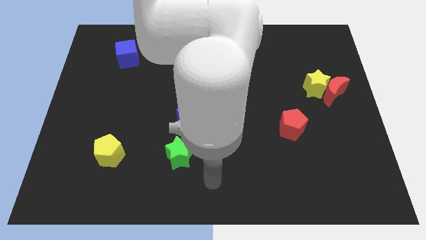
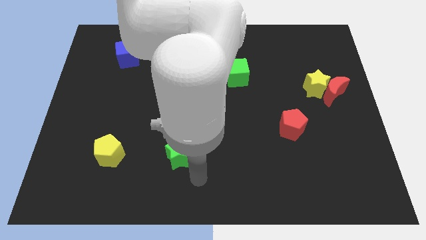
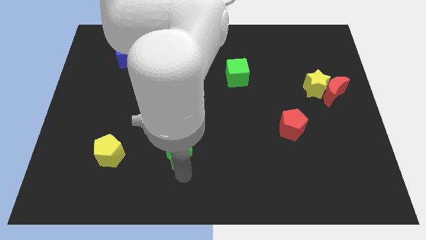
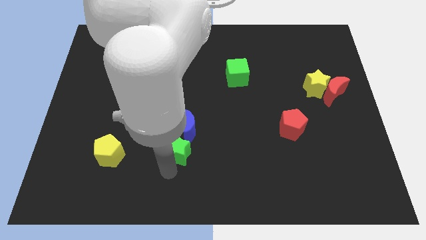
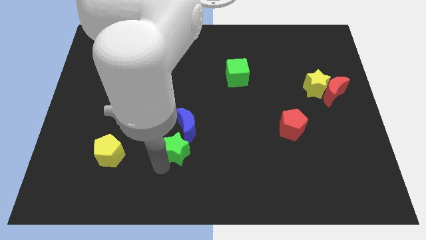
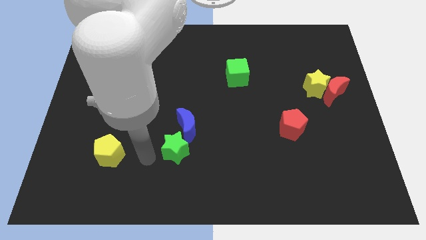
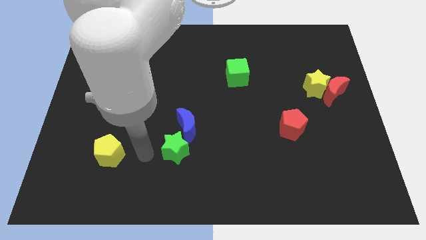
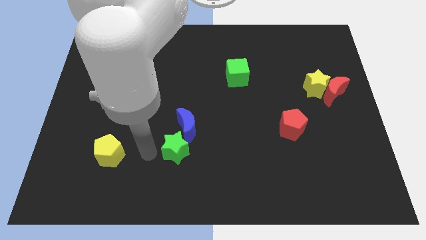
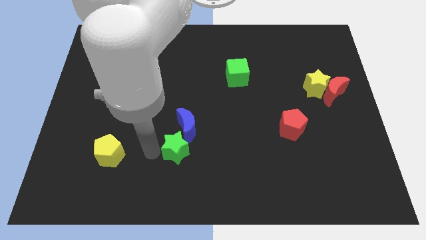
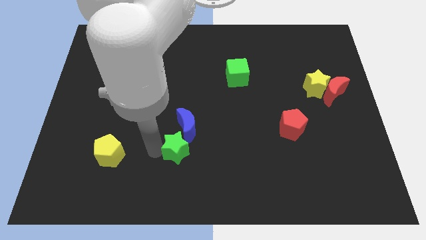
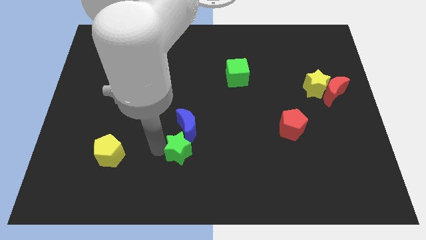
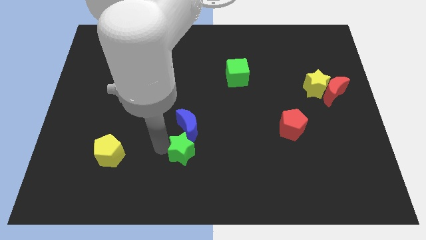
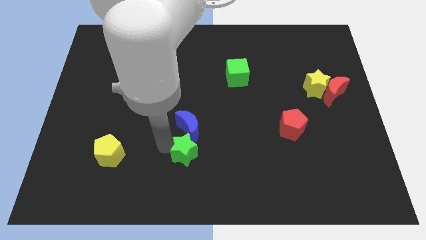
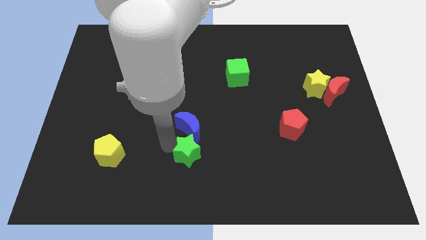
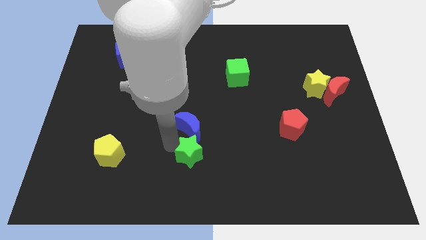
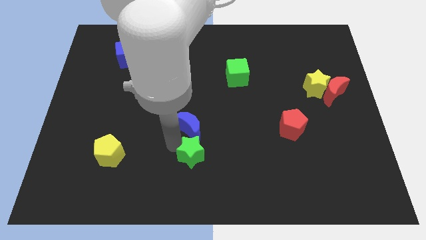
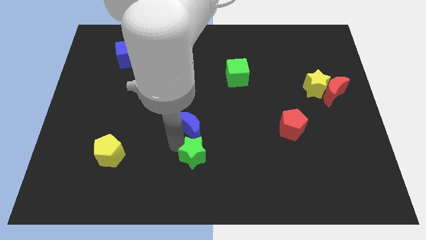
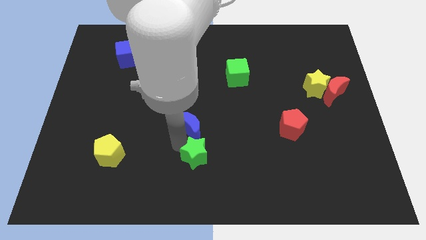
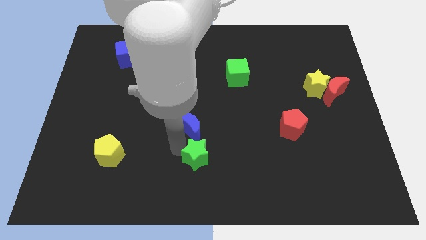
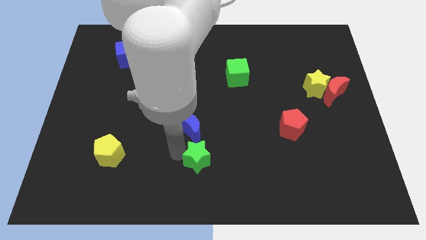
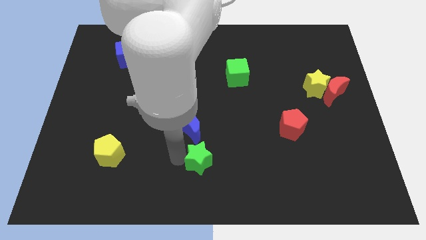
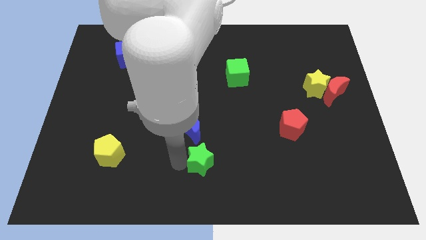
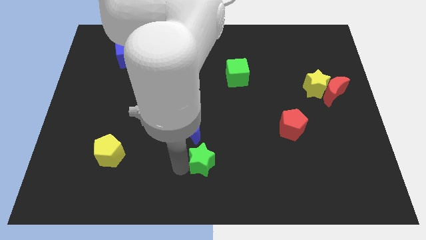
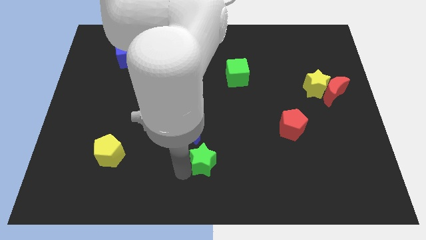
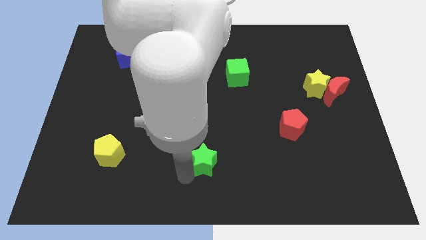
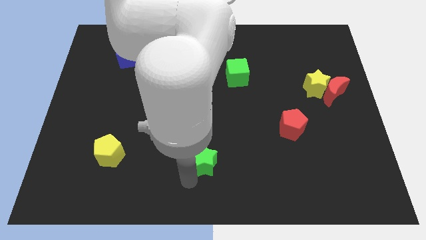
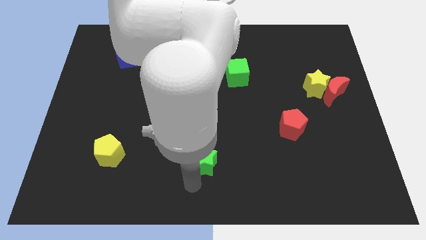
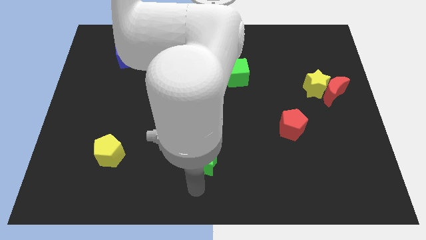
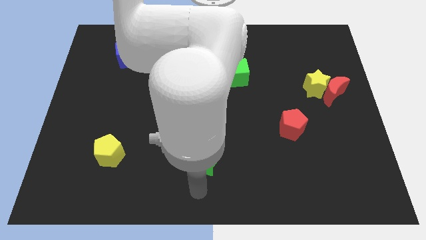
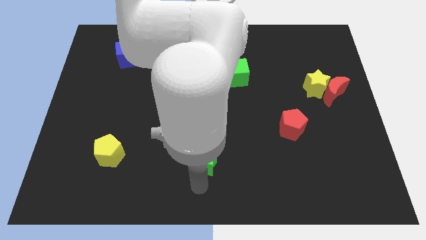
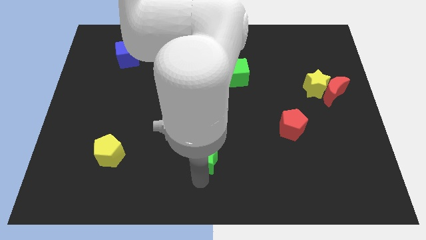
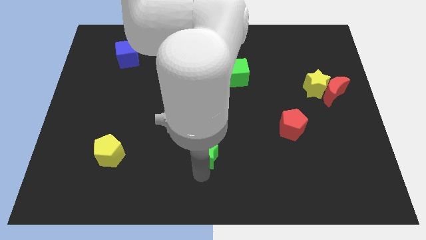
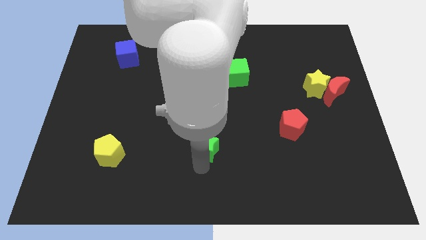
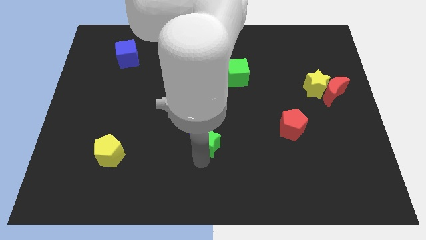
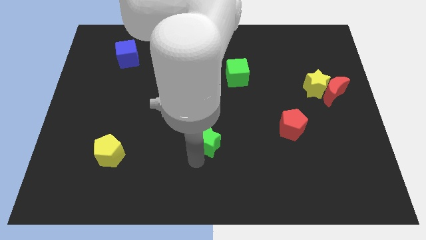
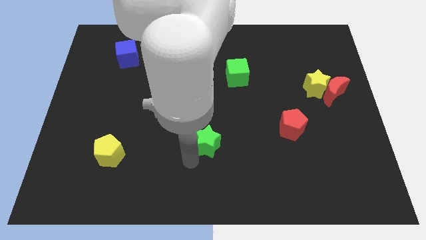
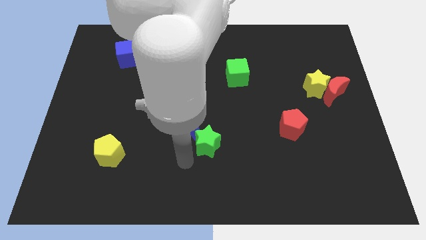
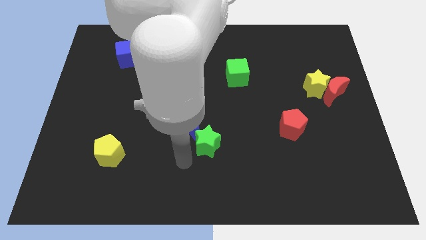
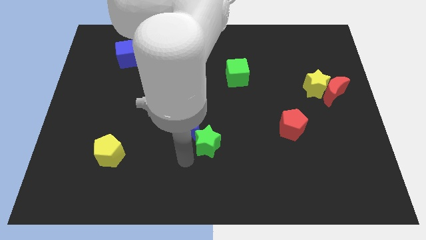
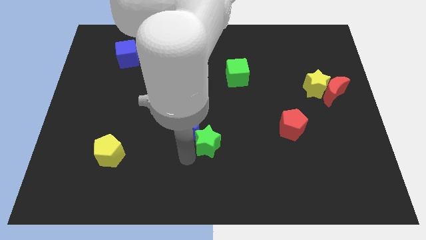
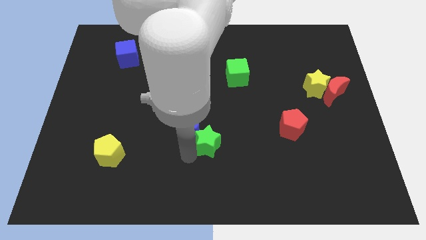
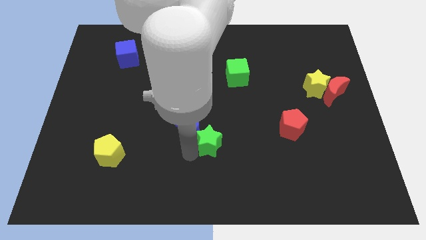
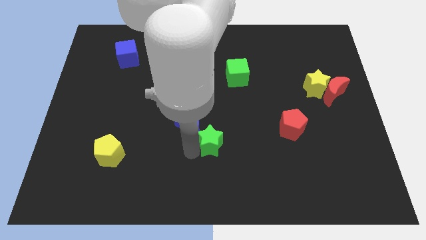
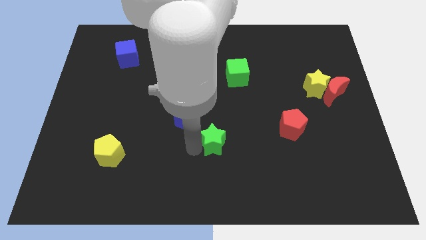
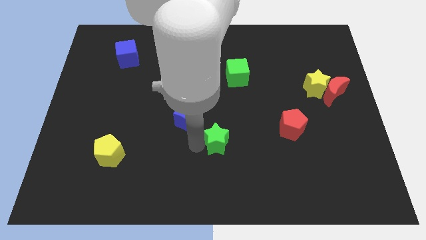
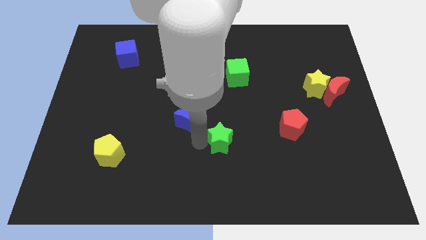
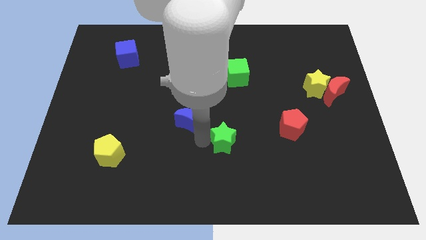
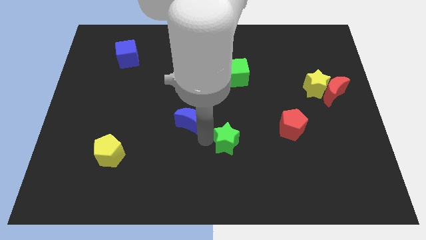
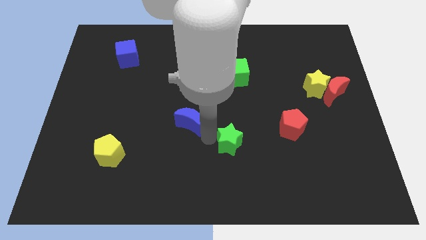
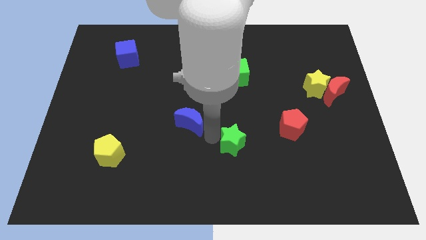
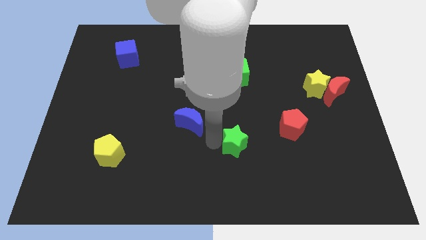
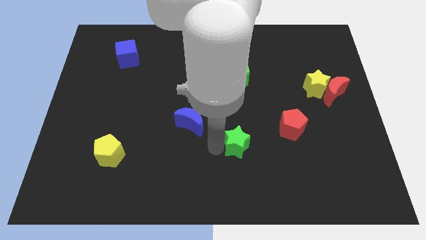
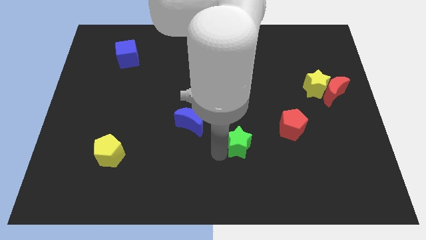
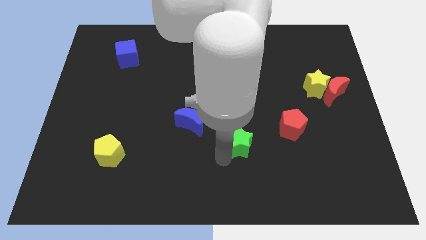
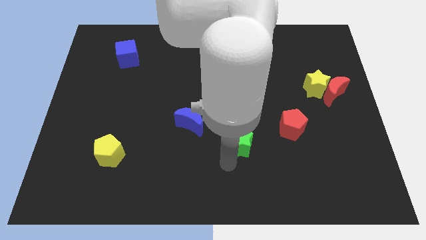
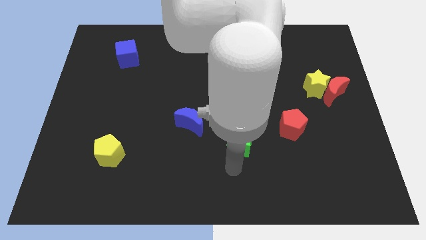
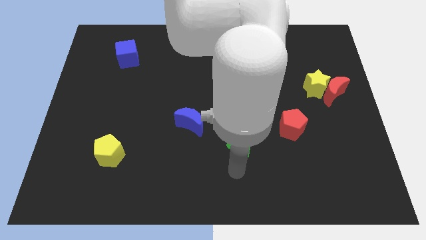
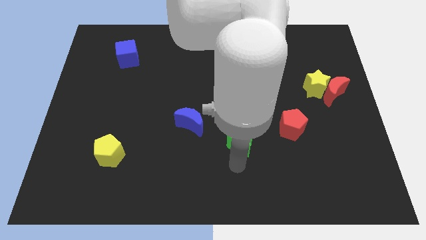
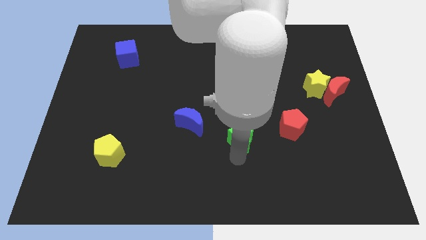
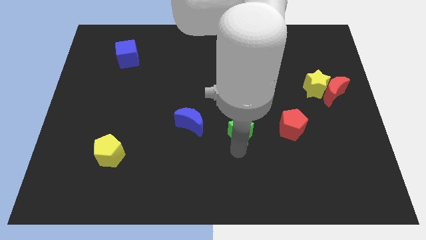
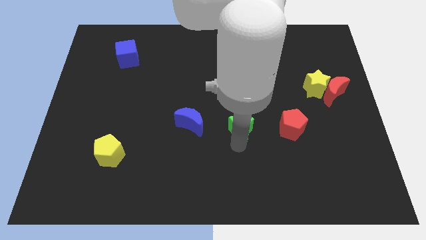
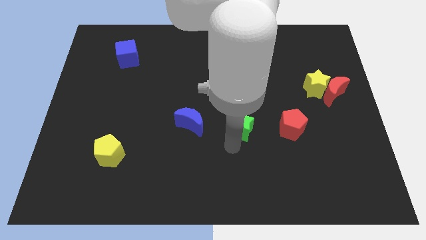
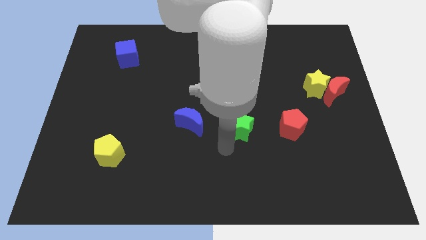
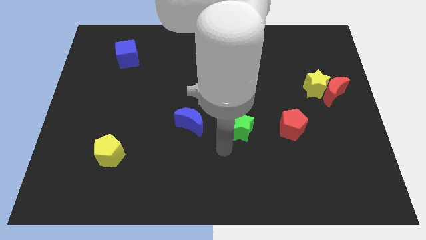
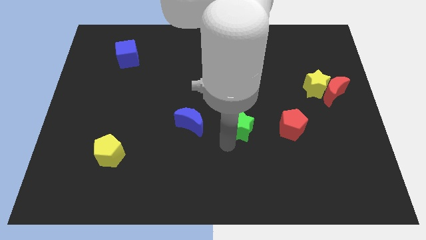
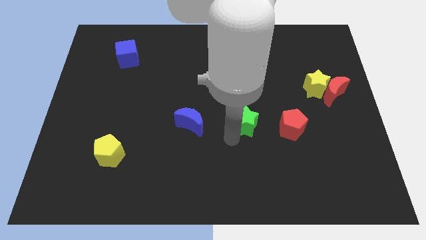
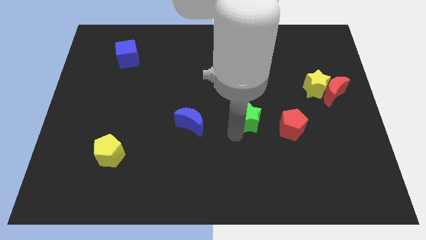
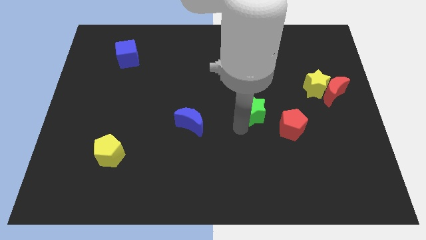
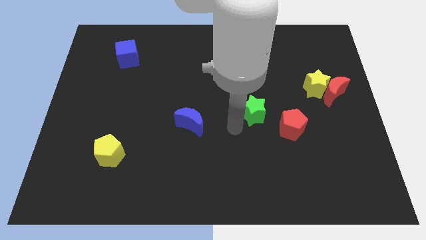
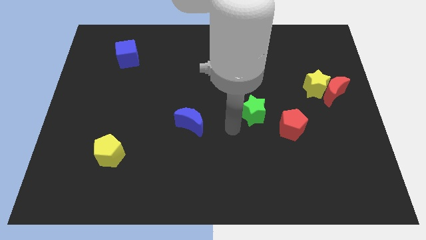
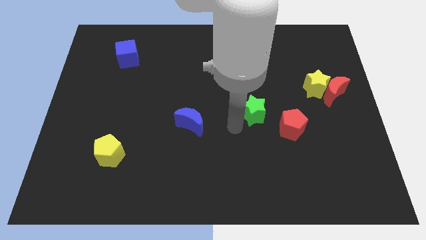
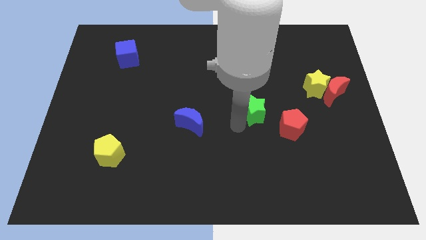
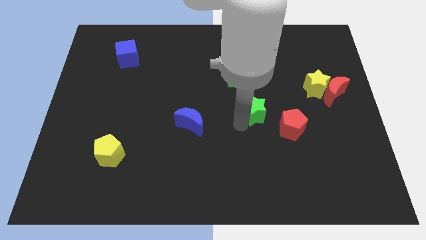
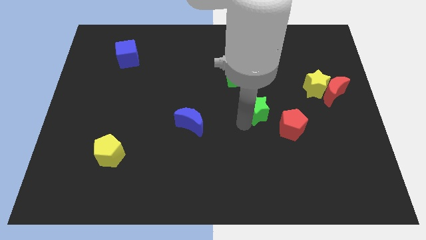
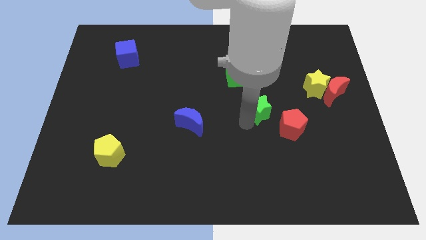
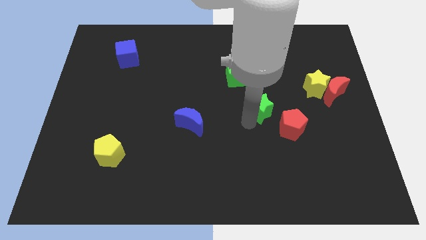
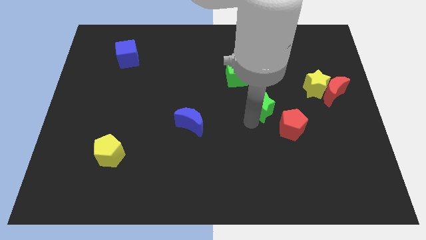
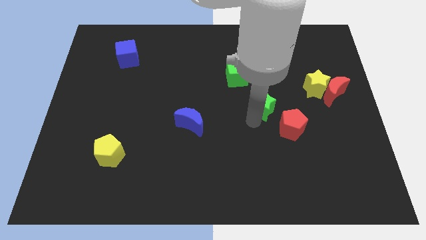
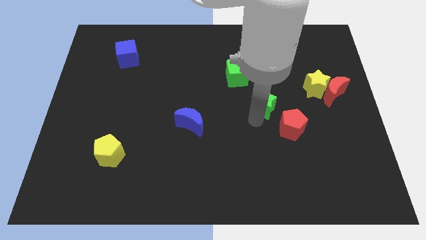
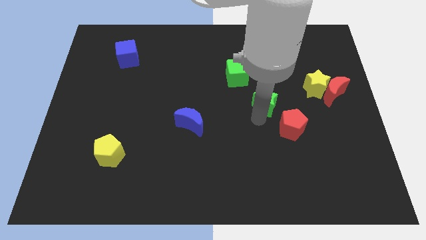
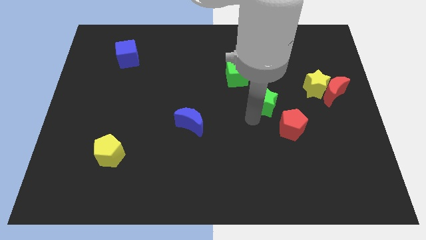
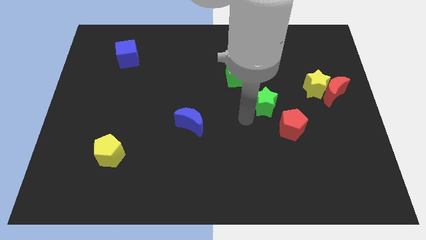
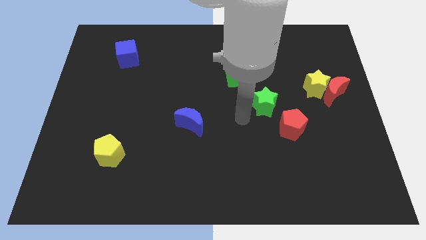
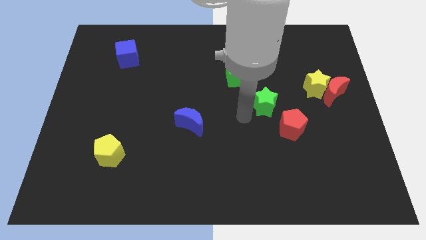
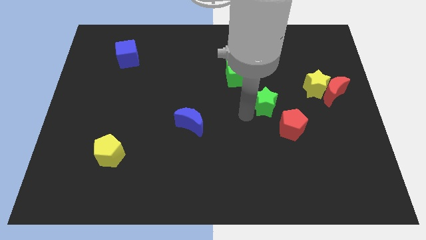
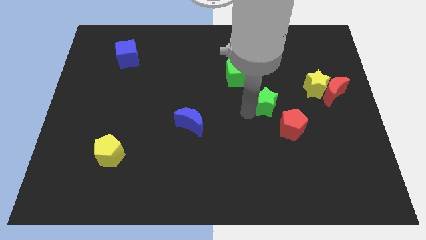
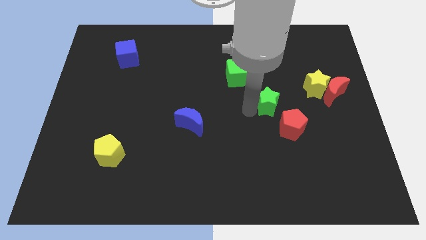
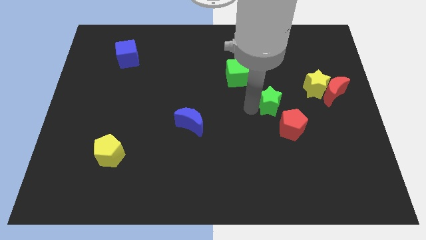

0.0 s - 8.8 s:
move the green star to the top of the red pentagon
